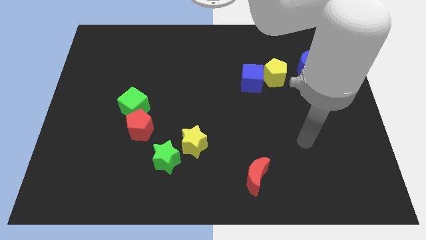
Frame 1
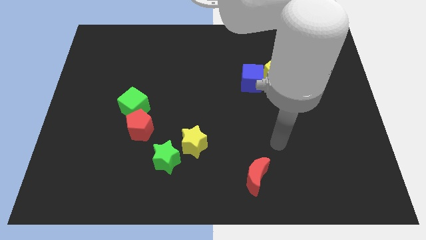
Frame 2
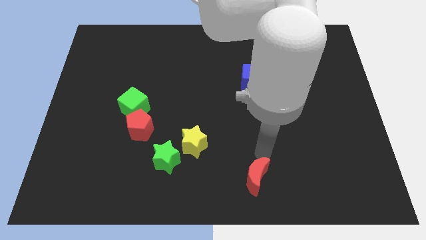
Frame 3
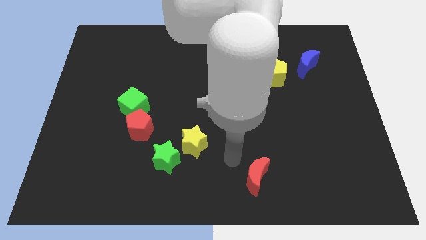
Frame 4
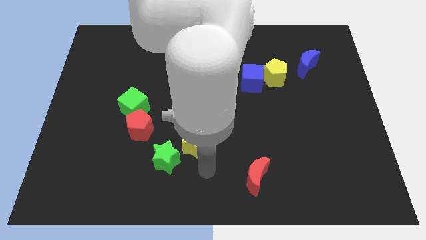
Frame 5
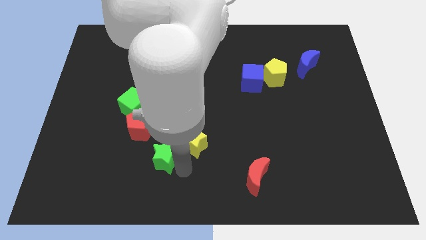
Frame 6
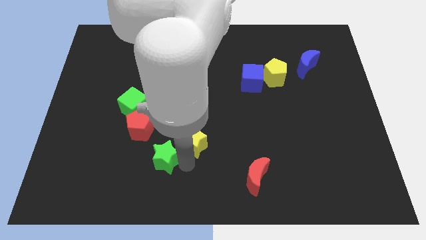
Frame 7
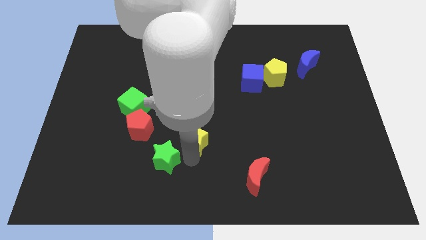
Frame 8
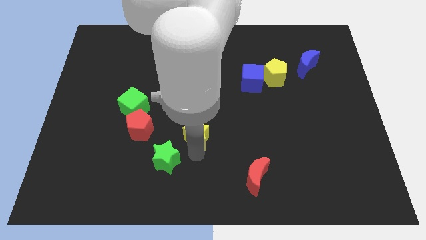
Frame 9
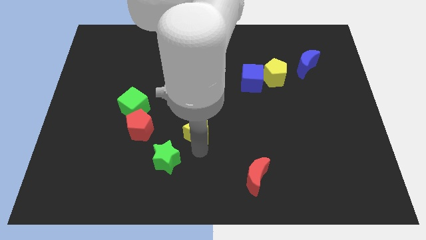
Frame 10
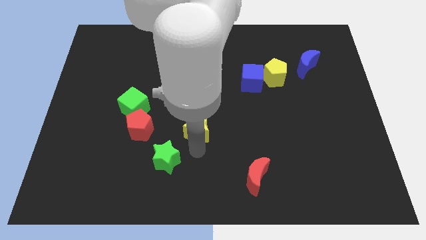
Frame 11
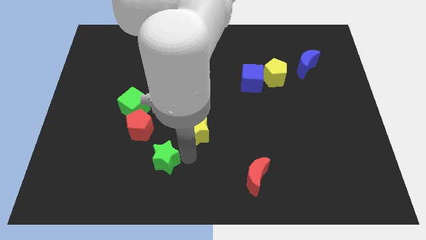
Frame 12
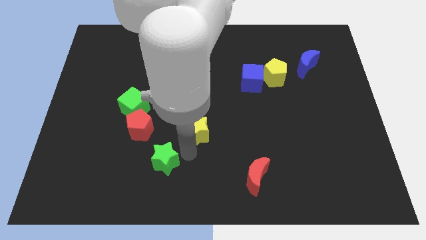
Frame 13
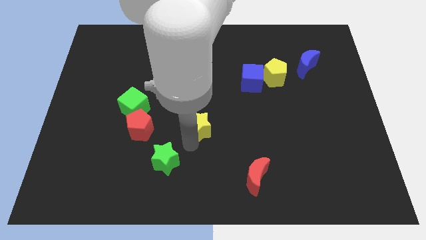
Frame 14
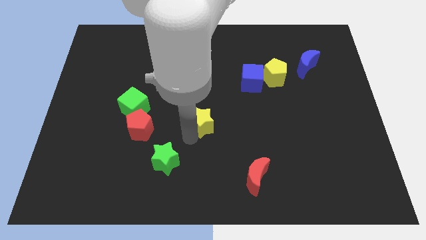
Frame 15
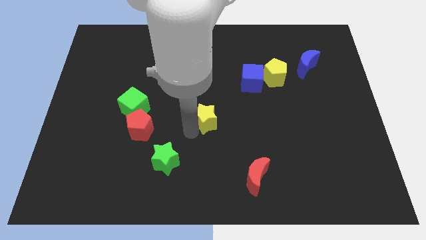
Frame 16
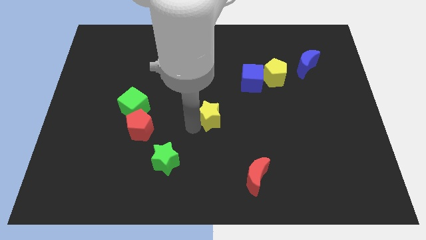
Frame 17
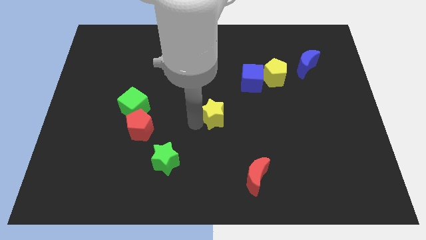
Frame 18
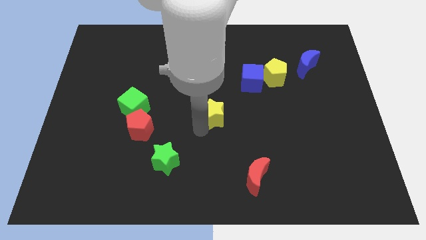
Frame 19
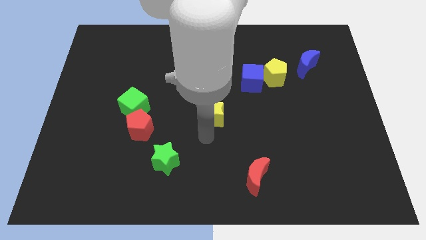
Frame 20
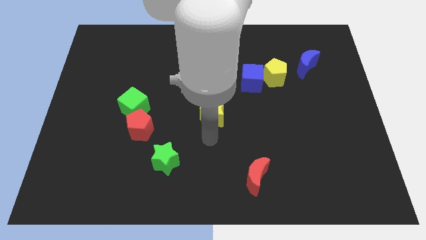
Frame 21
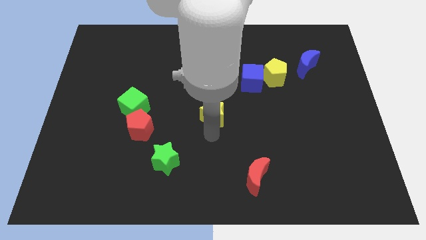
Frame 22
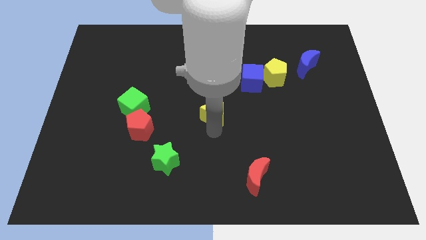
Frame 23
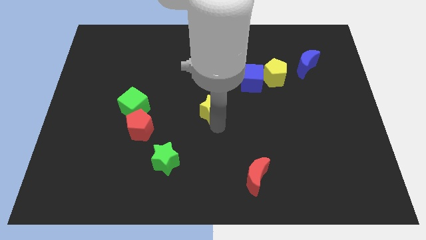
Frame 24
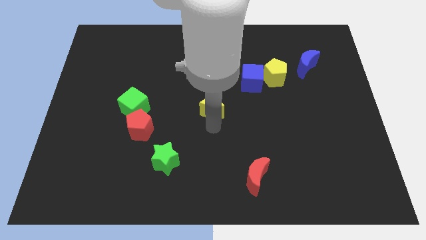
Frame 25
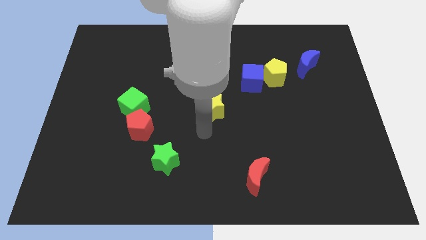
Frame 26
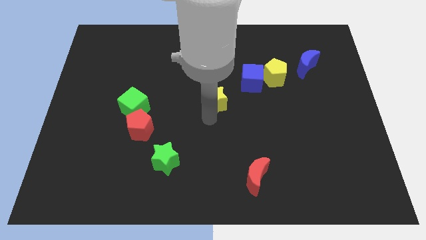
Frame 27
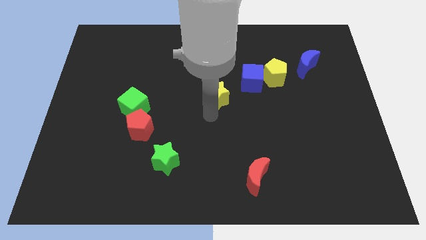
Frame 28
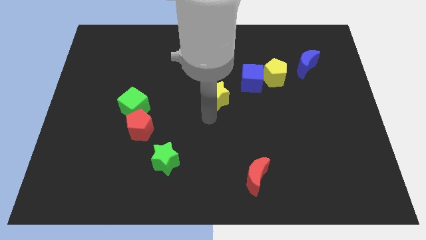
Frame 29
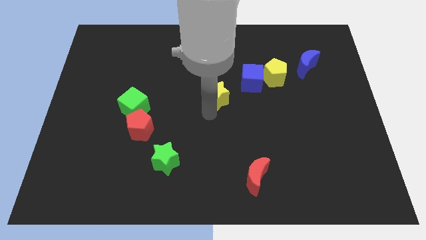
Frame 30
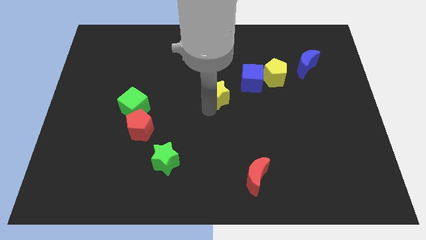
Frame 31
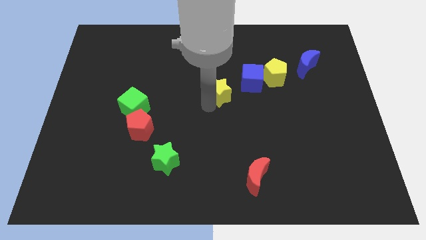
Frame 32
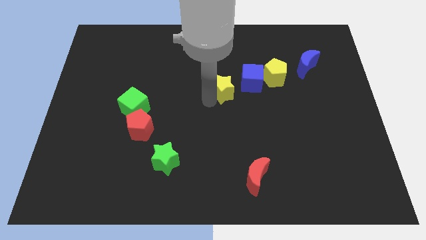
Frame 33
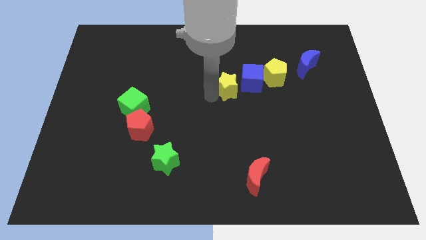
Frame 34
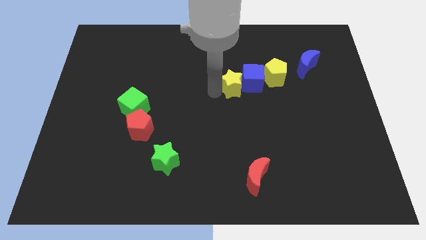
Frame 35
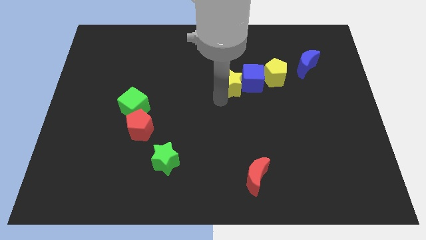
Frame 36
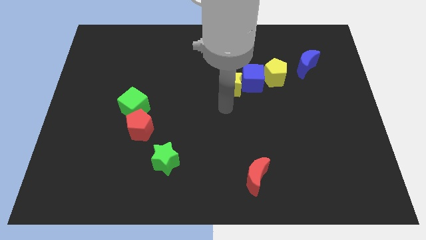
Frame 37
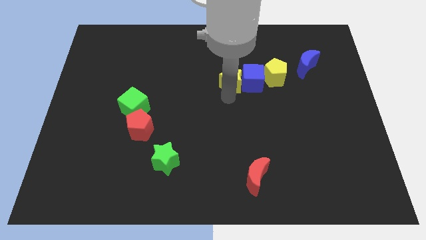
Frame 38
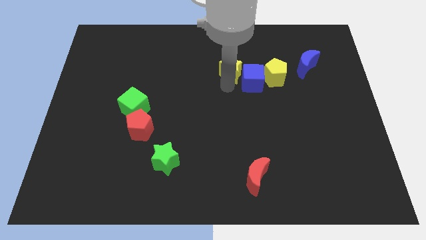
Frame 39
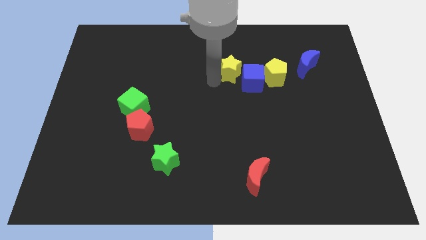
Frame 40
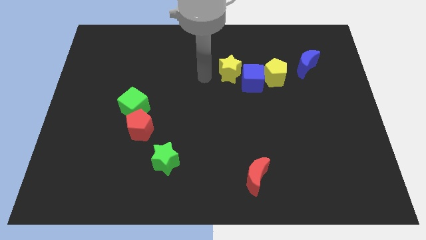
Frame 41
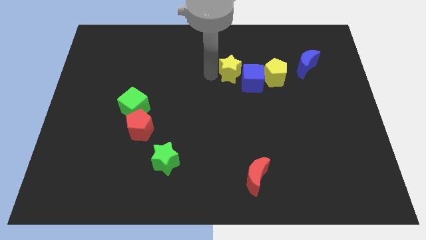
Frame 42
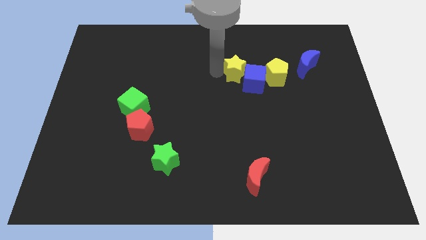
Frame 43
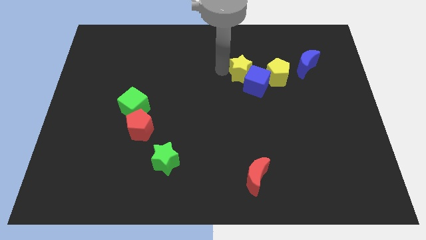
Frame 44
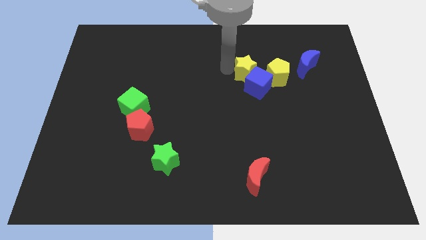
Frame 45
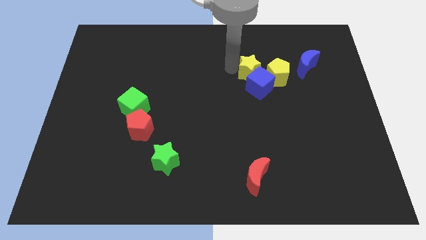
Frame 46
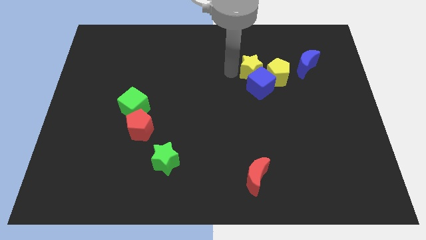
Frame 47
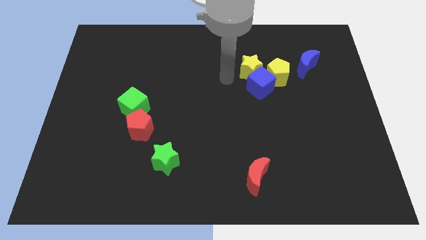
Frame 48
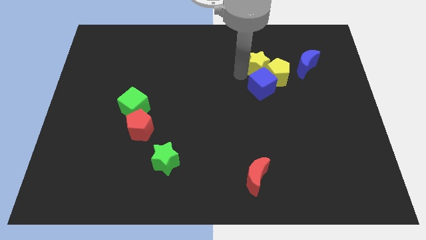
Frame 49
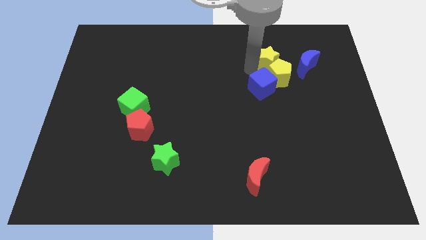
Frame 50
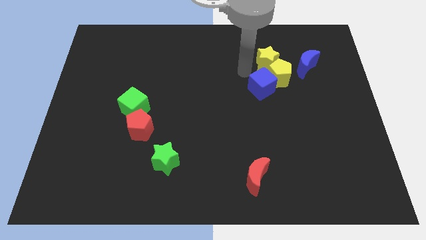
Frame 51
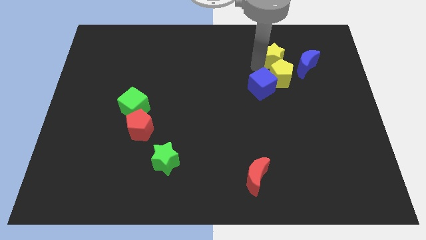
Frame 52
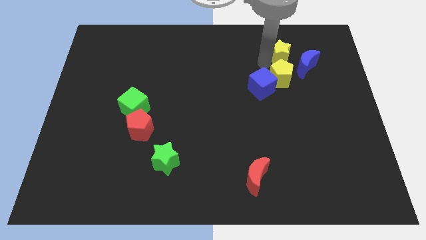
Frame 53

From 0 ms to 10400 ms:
push the yellow star to the top right side of the yellow pentagon
